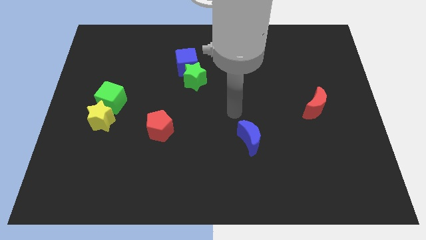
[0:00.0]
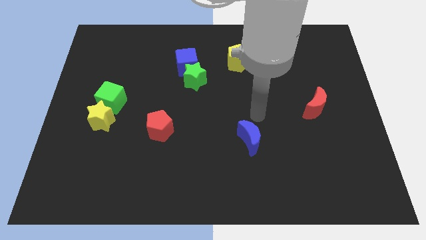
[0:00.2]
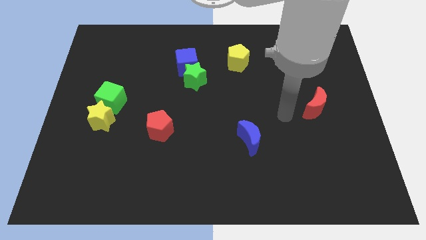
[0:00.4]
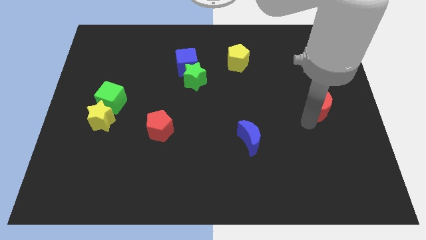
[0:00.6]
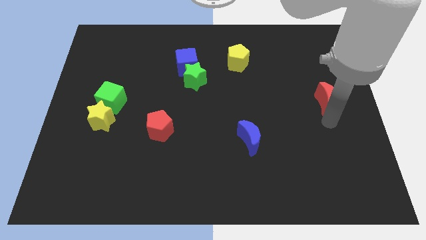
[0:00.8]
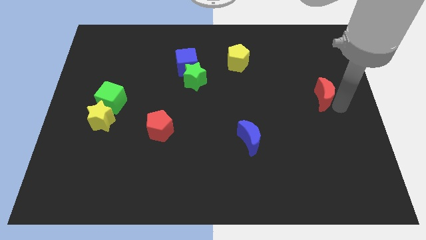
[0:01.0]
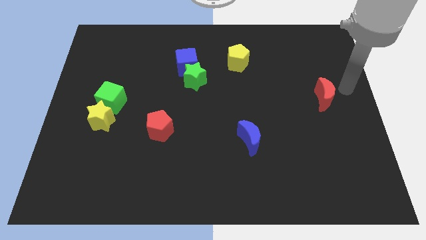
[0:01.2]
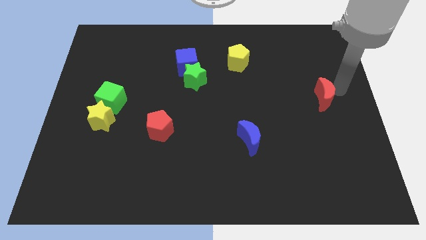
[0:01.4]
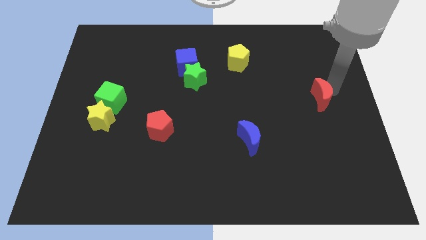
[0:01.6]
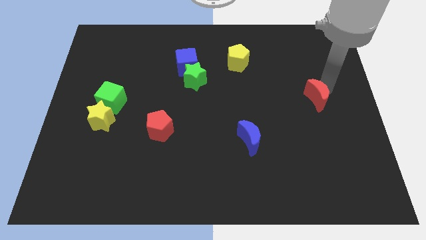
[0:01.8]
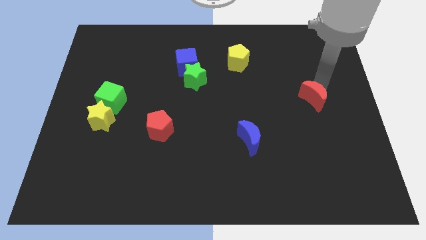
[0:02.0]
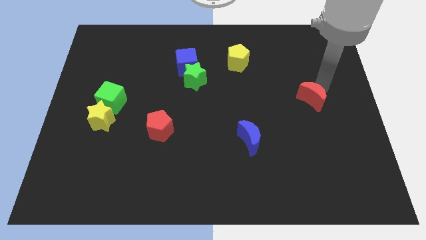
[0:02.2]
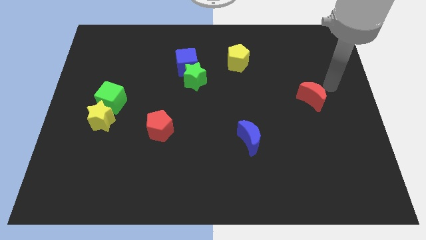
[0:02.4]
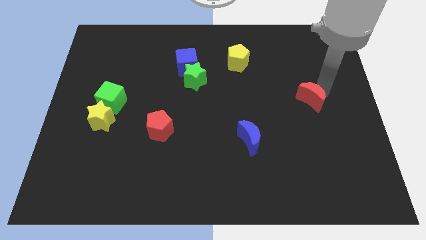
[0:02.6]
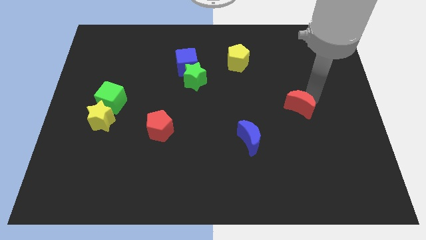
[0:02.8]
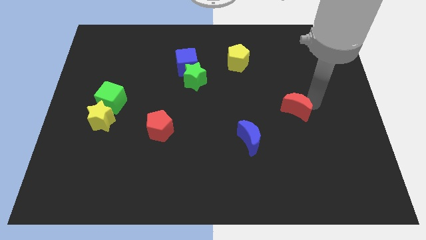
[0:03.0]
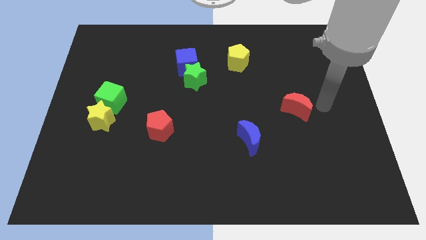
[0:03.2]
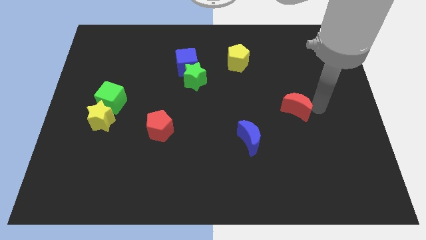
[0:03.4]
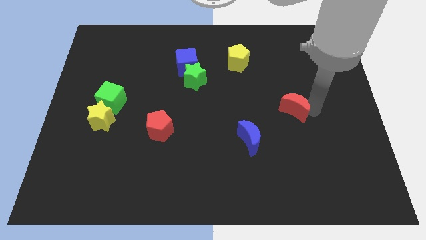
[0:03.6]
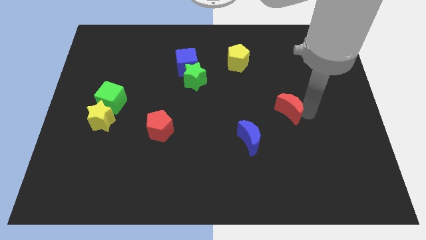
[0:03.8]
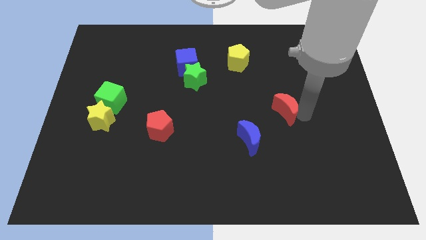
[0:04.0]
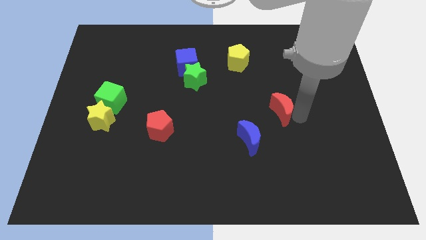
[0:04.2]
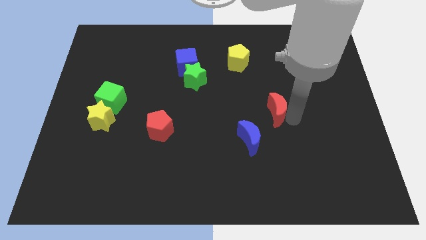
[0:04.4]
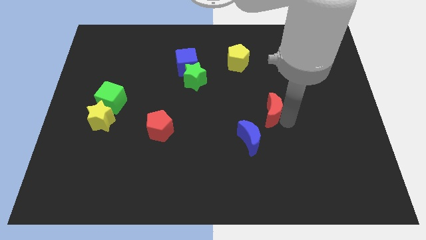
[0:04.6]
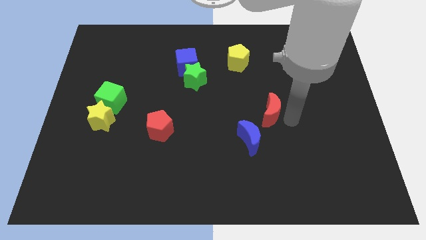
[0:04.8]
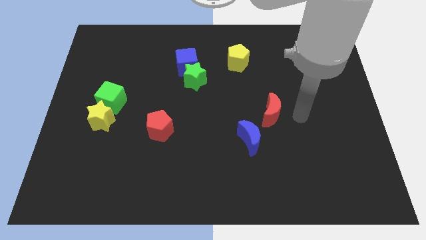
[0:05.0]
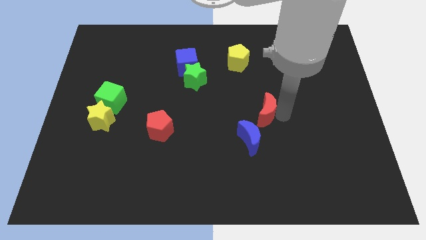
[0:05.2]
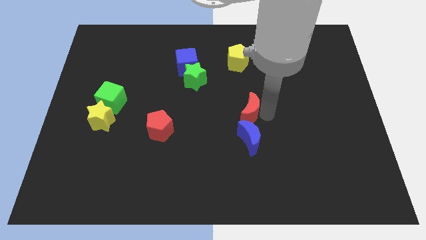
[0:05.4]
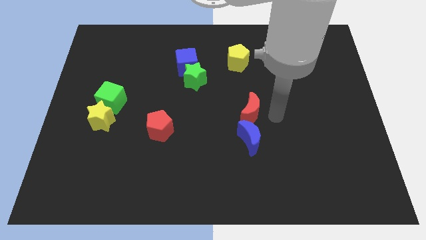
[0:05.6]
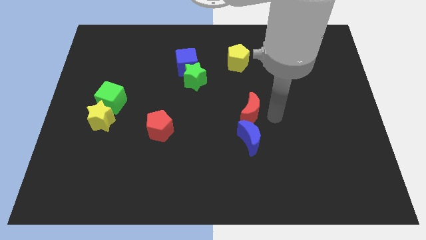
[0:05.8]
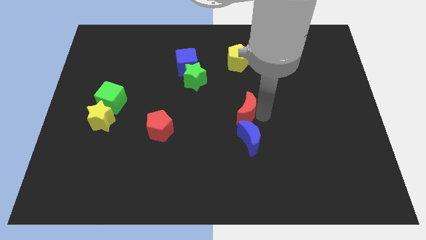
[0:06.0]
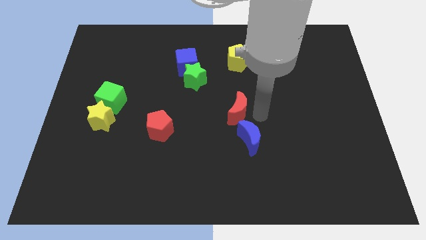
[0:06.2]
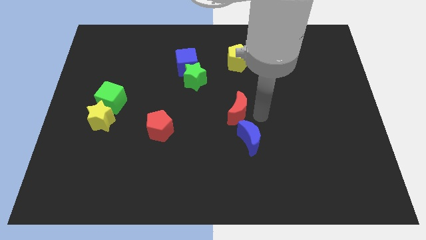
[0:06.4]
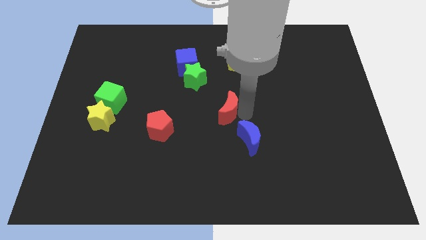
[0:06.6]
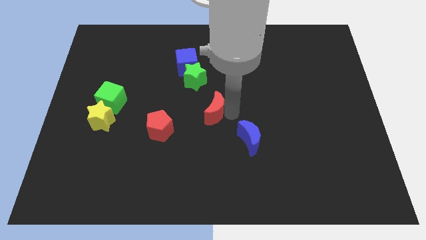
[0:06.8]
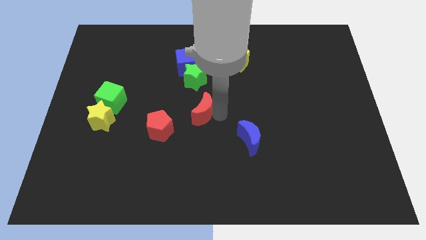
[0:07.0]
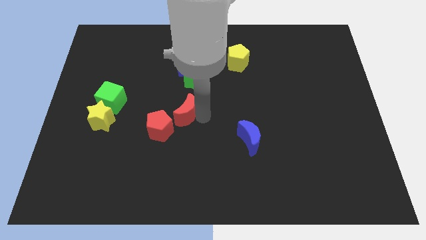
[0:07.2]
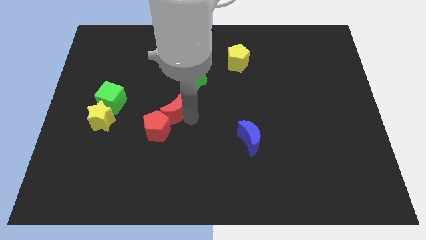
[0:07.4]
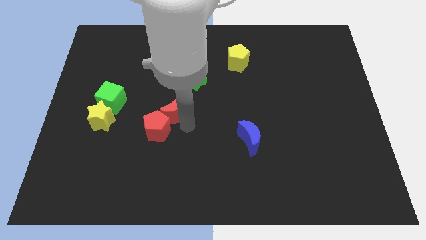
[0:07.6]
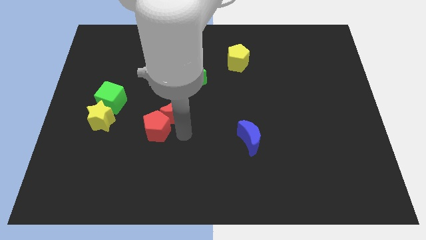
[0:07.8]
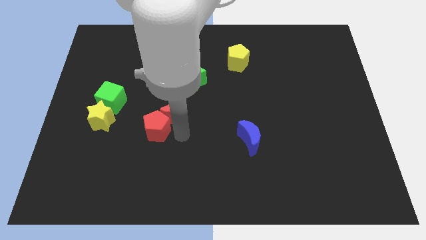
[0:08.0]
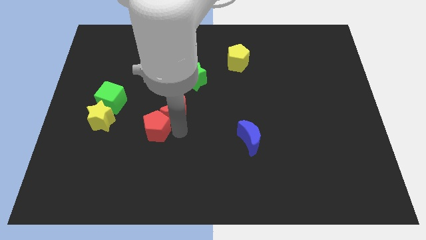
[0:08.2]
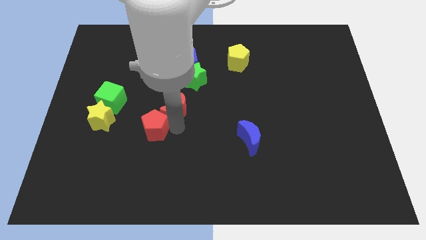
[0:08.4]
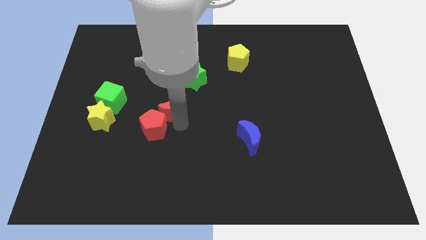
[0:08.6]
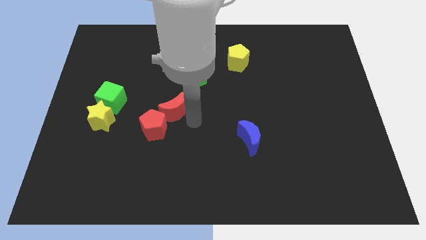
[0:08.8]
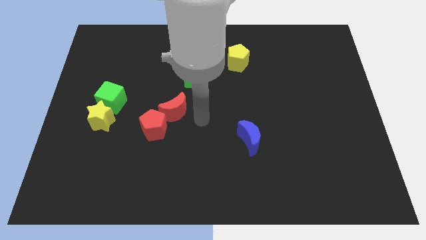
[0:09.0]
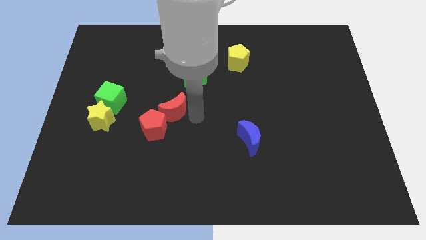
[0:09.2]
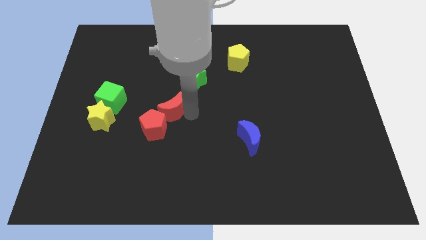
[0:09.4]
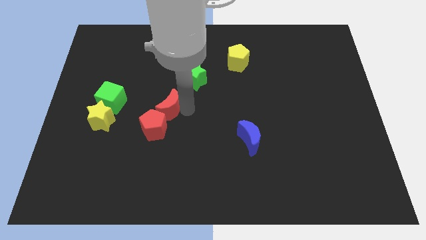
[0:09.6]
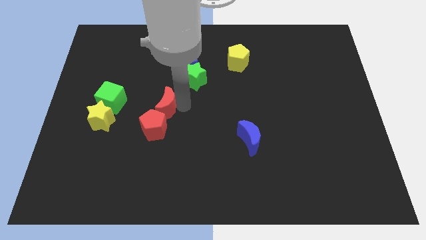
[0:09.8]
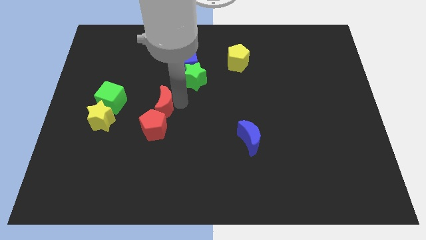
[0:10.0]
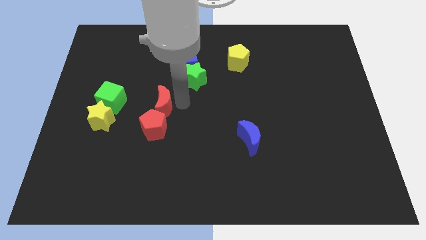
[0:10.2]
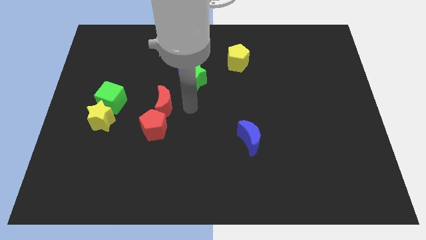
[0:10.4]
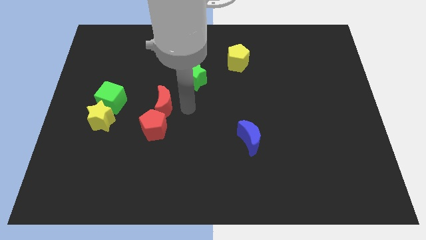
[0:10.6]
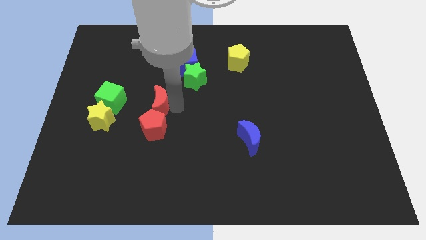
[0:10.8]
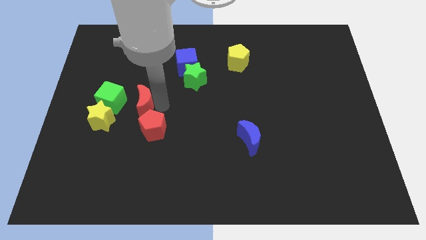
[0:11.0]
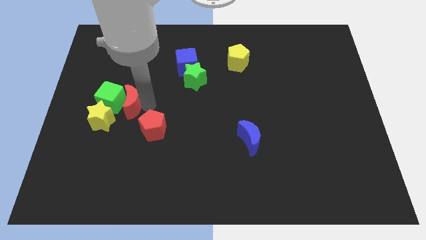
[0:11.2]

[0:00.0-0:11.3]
move the red moon close to the green cube

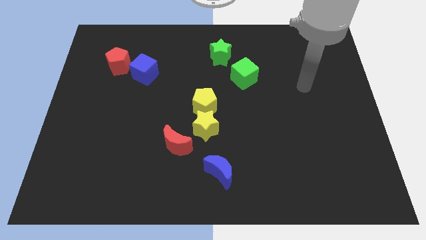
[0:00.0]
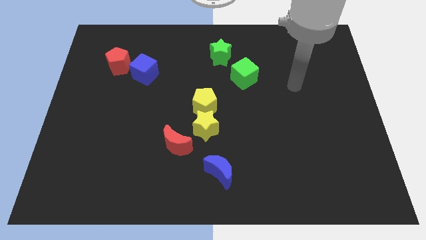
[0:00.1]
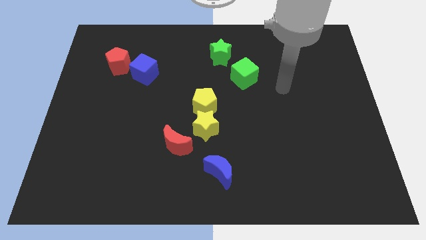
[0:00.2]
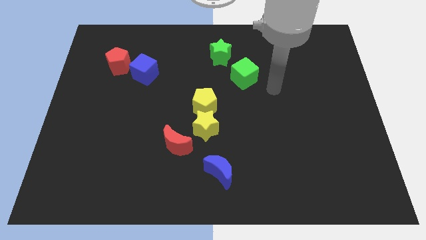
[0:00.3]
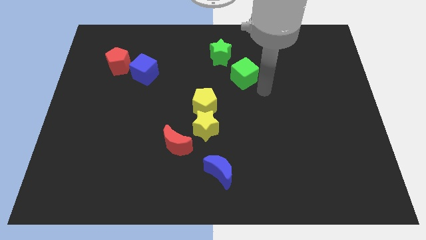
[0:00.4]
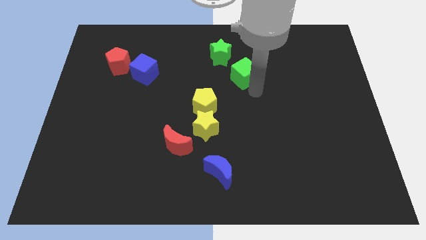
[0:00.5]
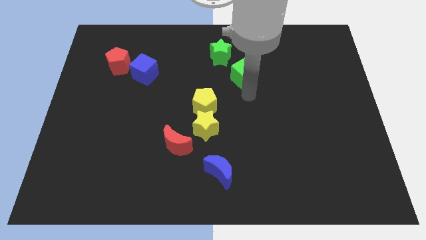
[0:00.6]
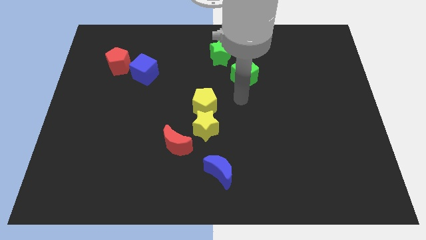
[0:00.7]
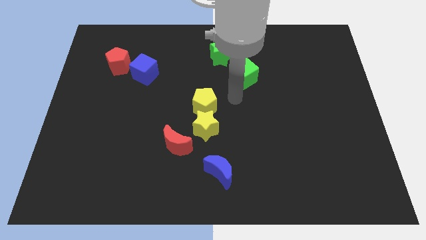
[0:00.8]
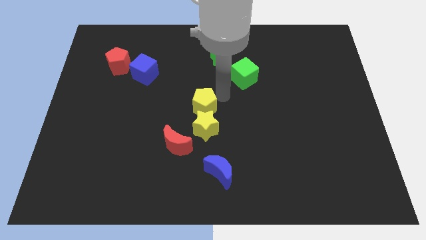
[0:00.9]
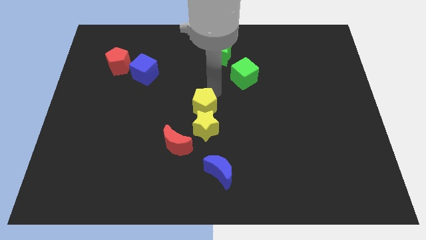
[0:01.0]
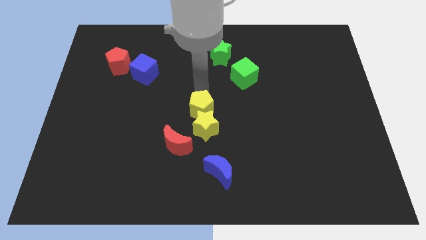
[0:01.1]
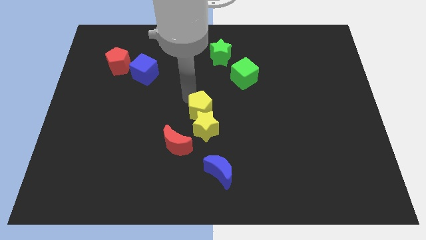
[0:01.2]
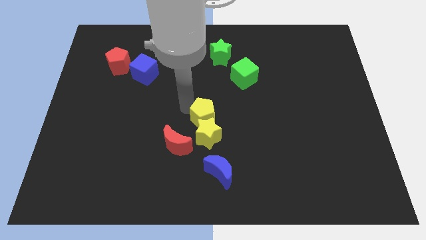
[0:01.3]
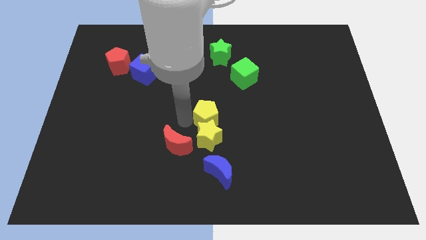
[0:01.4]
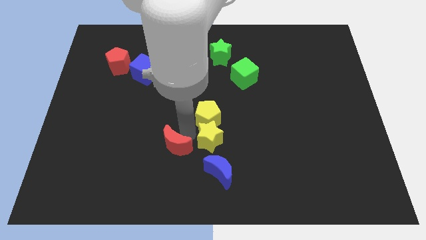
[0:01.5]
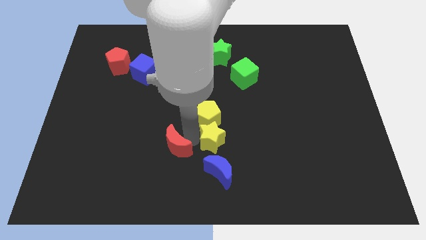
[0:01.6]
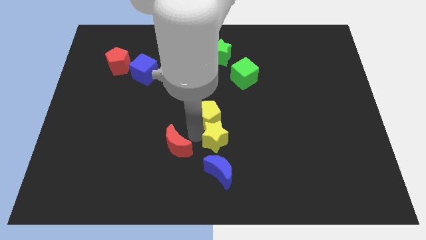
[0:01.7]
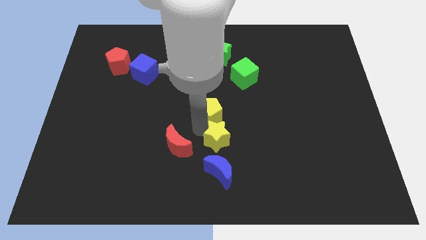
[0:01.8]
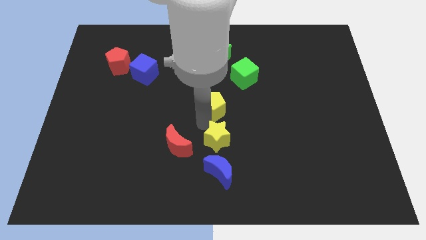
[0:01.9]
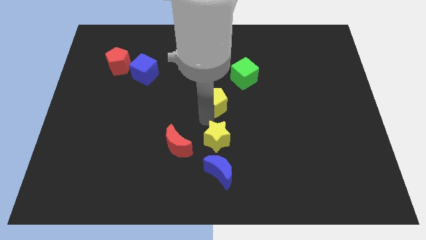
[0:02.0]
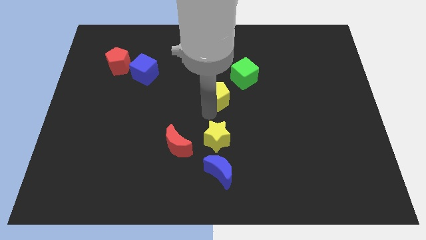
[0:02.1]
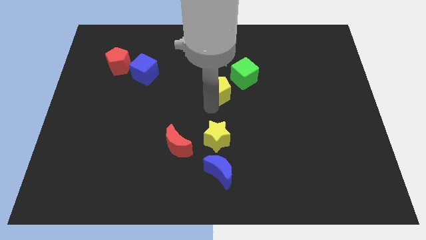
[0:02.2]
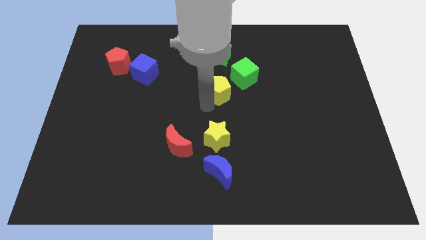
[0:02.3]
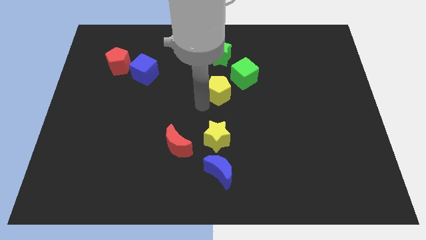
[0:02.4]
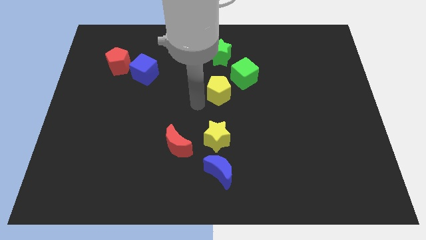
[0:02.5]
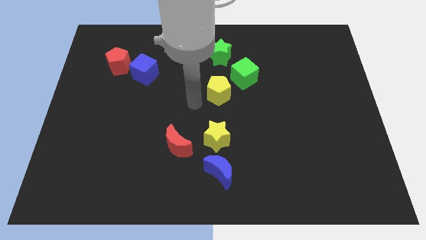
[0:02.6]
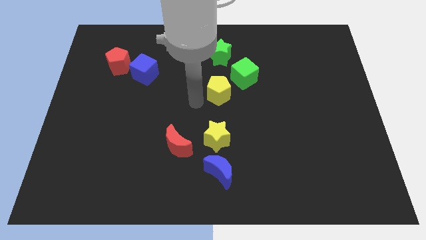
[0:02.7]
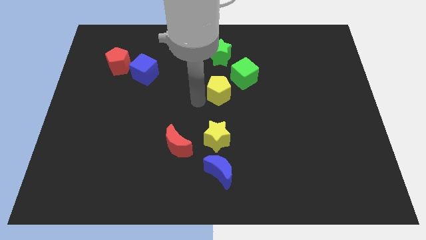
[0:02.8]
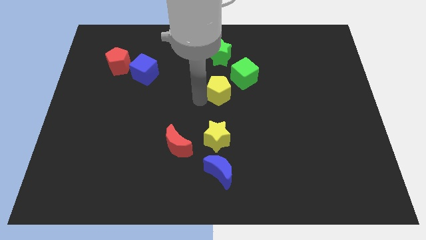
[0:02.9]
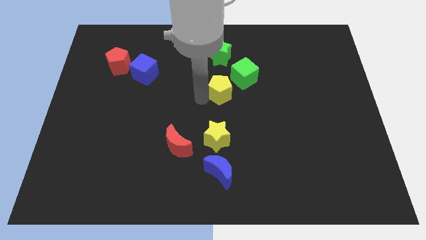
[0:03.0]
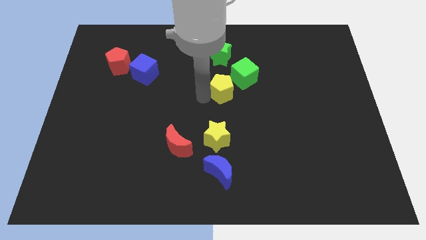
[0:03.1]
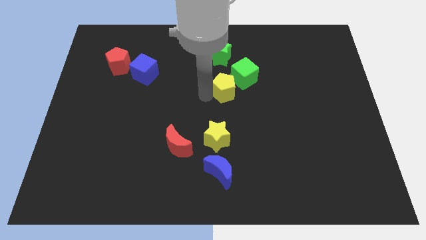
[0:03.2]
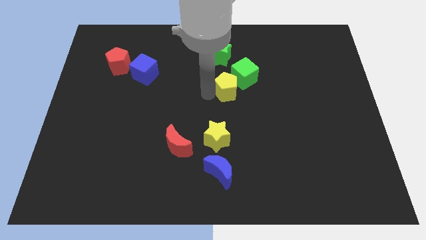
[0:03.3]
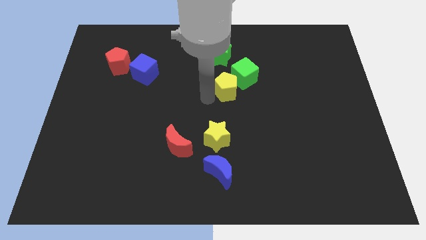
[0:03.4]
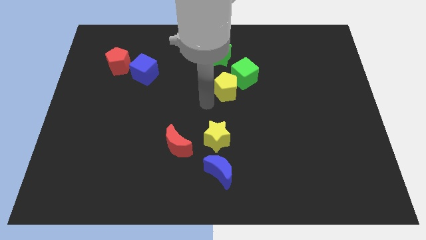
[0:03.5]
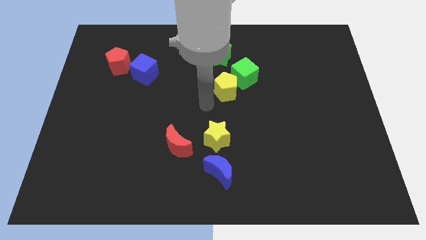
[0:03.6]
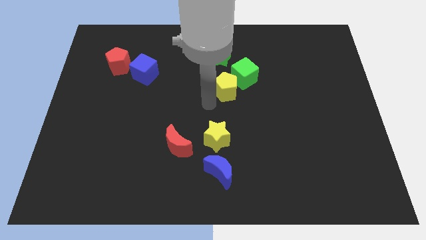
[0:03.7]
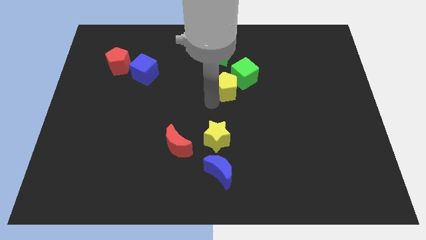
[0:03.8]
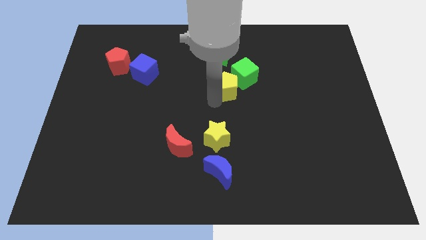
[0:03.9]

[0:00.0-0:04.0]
push the yellow pentagon next to the green cube
